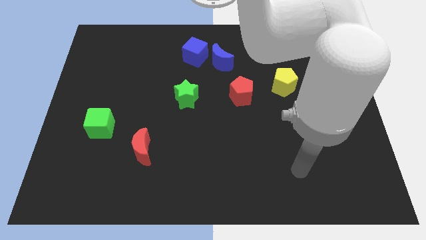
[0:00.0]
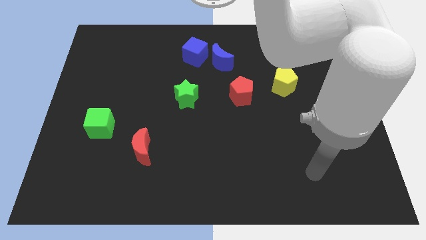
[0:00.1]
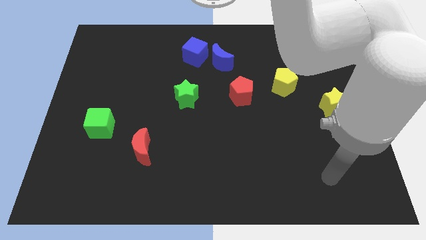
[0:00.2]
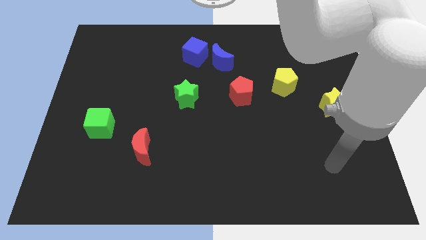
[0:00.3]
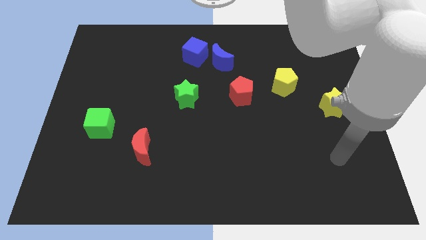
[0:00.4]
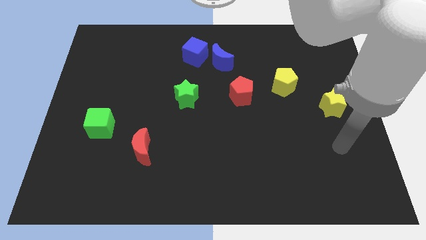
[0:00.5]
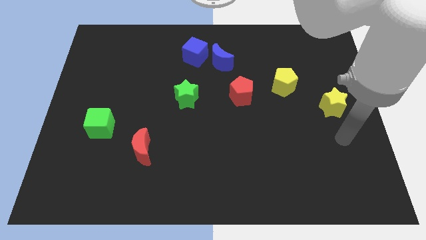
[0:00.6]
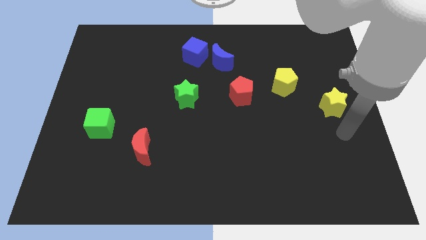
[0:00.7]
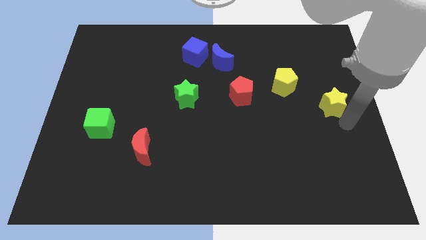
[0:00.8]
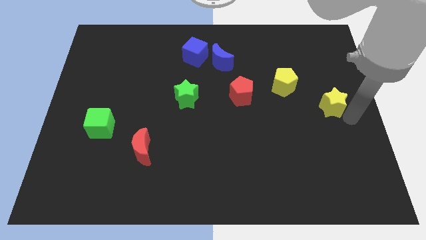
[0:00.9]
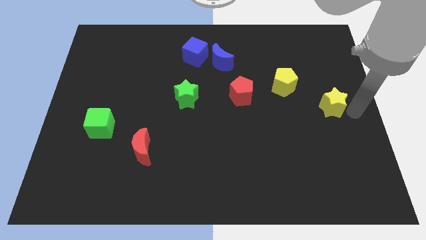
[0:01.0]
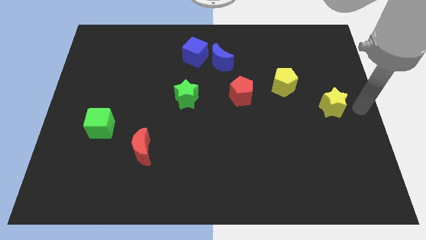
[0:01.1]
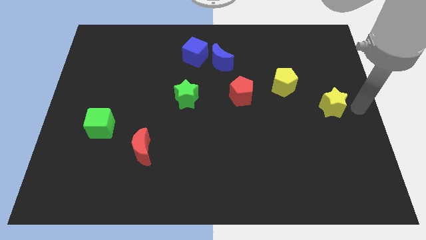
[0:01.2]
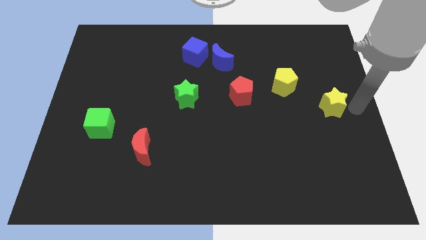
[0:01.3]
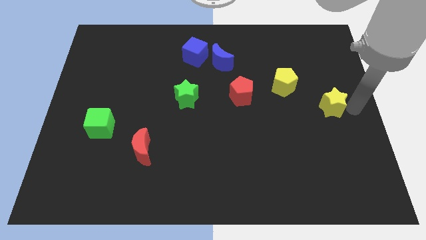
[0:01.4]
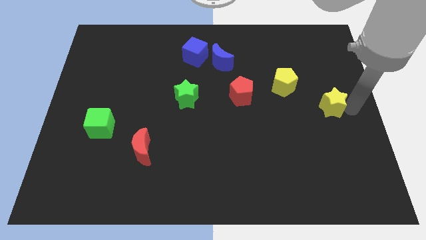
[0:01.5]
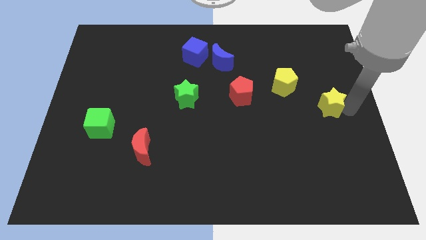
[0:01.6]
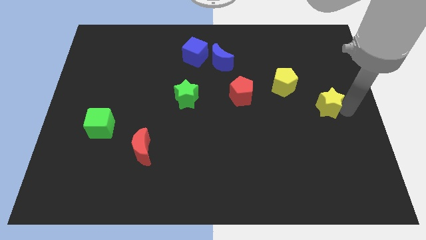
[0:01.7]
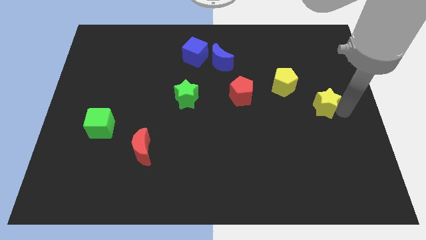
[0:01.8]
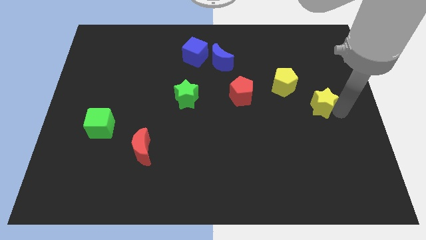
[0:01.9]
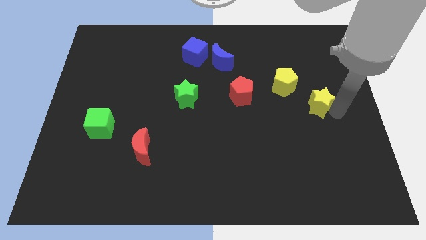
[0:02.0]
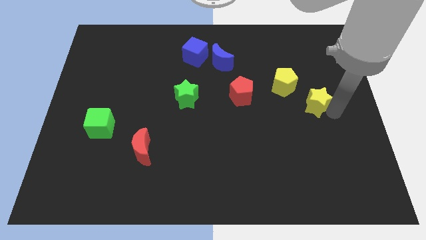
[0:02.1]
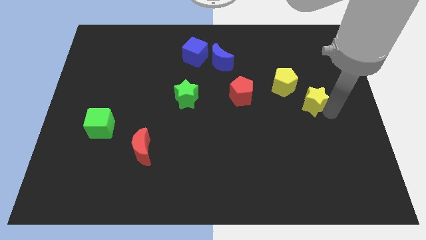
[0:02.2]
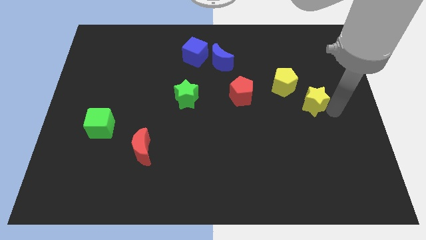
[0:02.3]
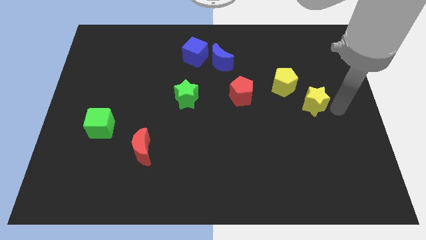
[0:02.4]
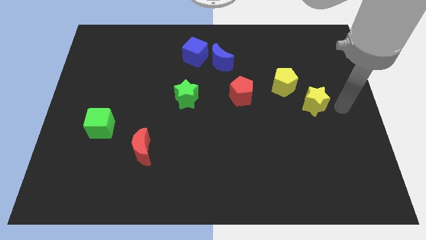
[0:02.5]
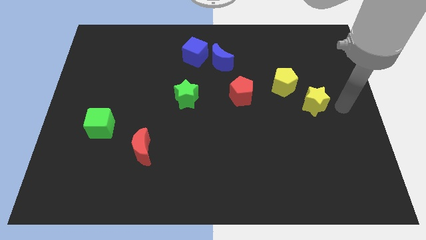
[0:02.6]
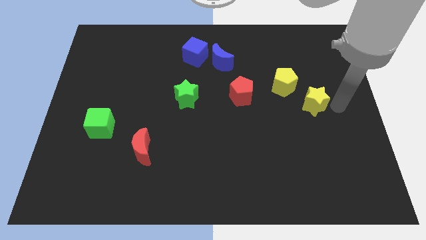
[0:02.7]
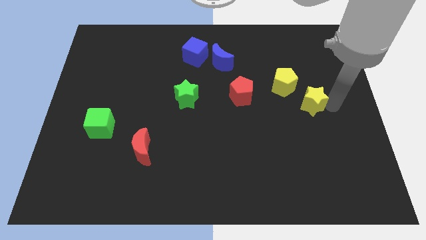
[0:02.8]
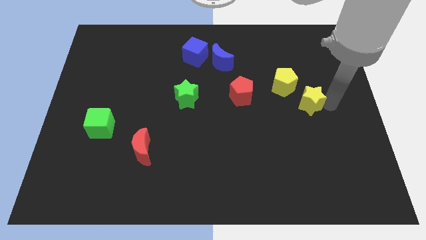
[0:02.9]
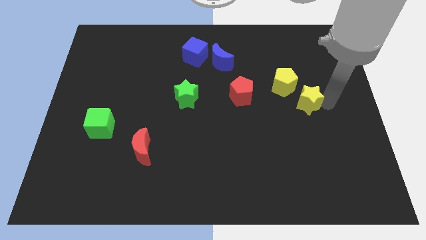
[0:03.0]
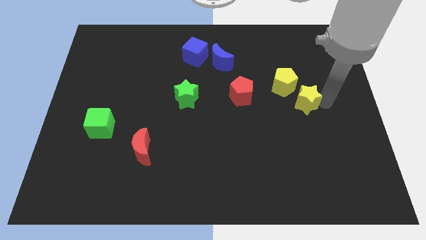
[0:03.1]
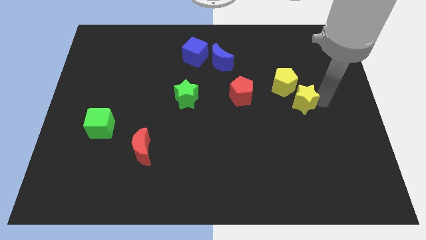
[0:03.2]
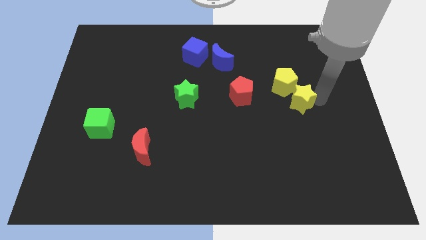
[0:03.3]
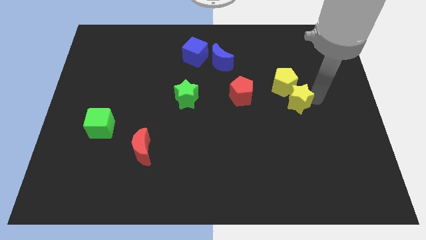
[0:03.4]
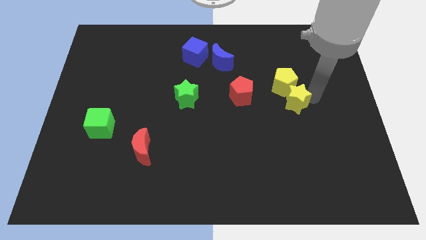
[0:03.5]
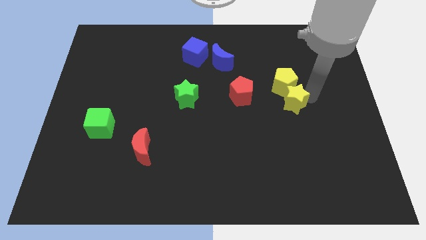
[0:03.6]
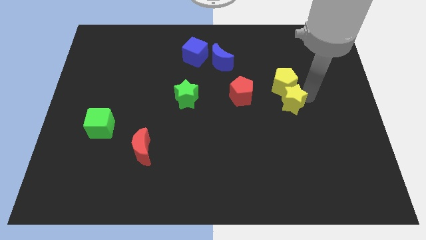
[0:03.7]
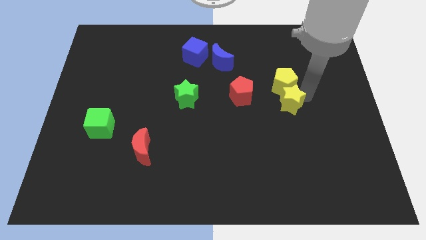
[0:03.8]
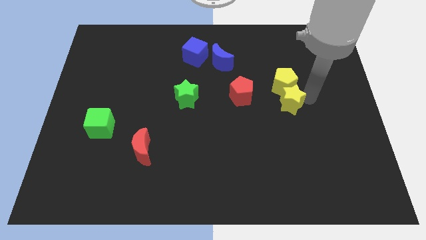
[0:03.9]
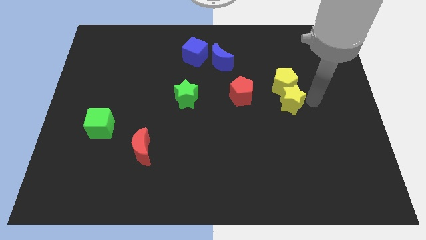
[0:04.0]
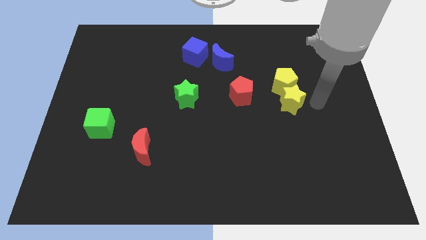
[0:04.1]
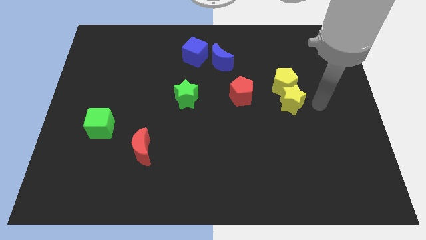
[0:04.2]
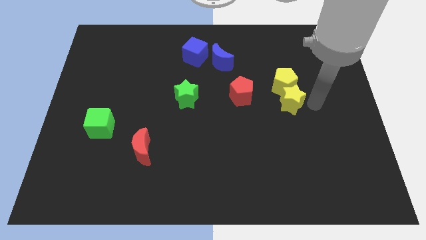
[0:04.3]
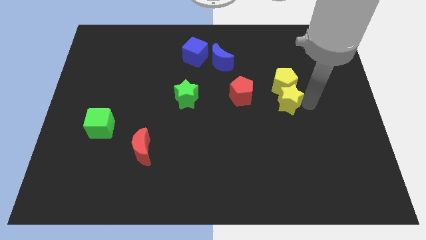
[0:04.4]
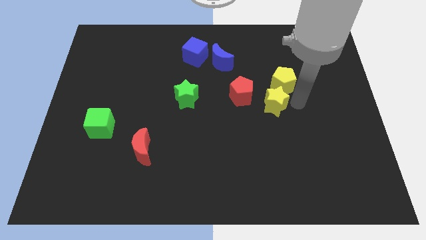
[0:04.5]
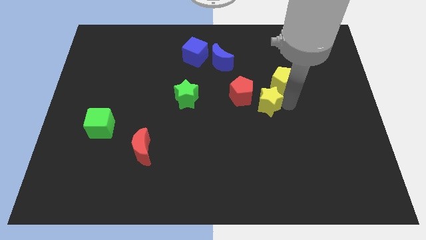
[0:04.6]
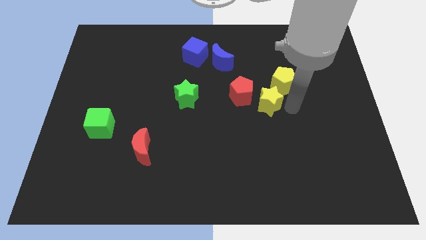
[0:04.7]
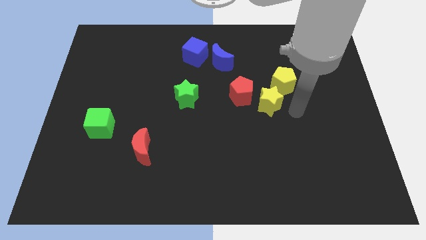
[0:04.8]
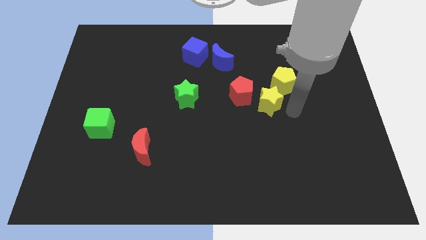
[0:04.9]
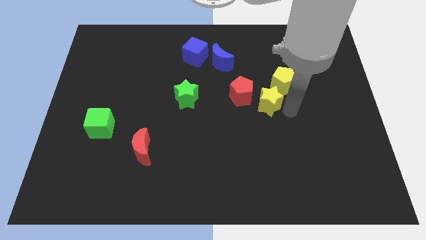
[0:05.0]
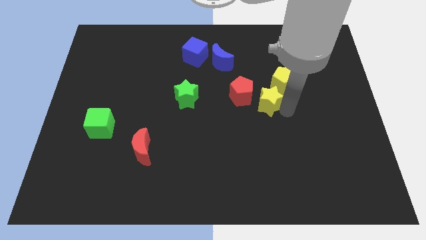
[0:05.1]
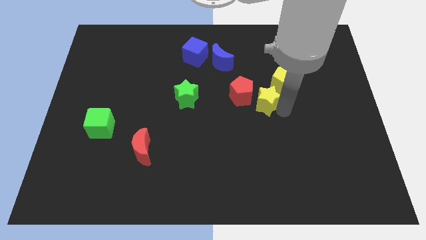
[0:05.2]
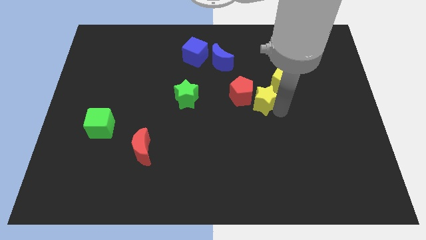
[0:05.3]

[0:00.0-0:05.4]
push the yellow star close to the red pentagon

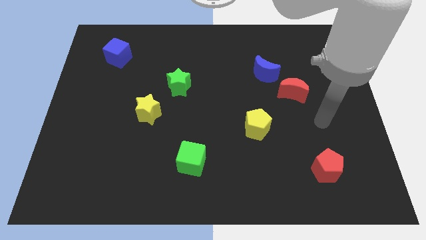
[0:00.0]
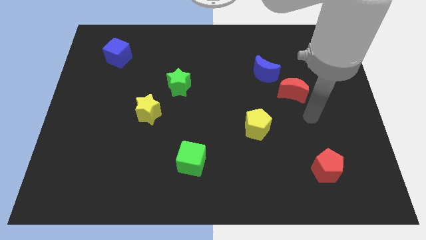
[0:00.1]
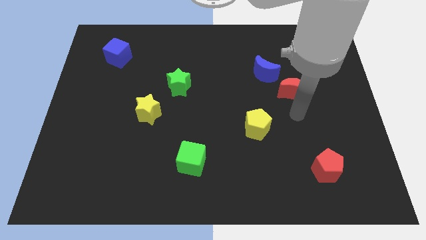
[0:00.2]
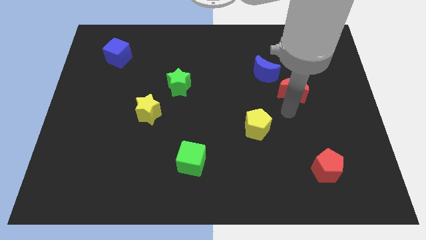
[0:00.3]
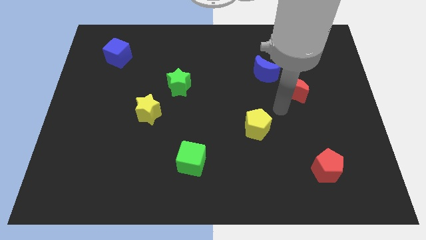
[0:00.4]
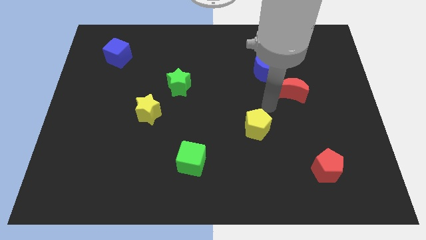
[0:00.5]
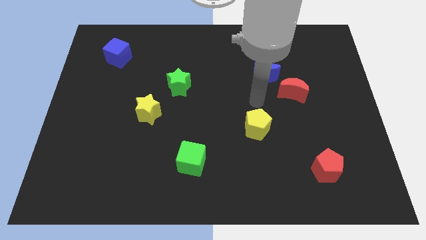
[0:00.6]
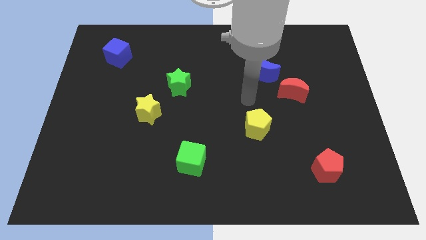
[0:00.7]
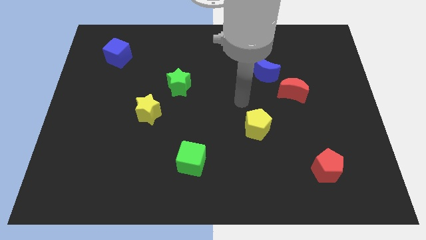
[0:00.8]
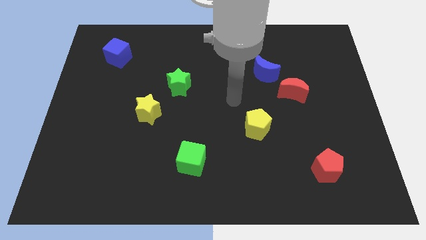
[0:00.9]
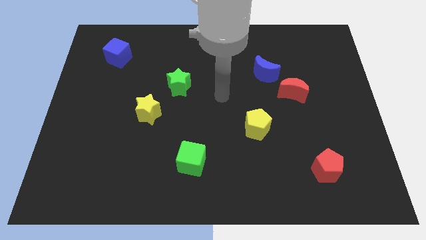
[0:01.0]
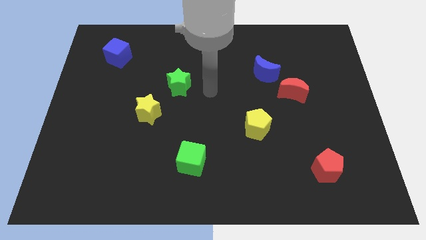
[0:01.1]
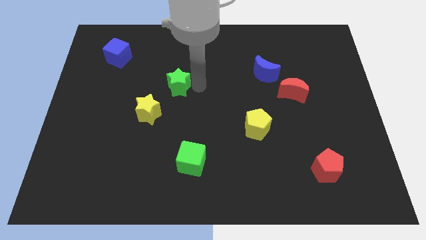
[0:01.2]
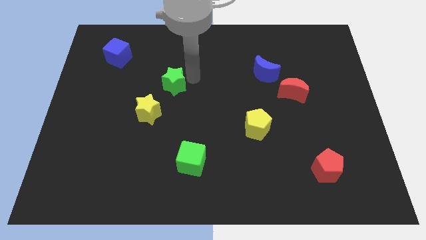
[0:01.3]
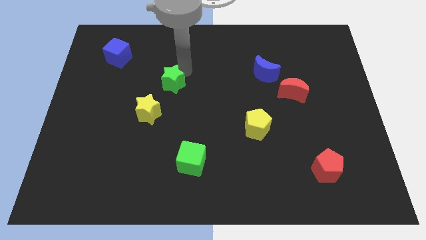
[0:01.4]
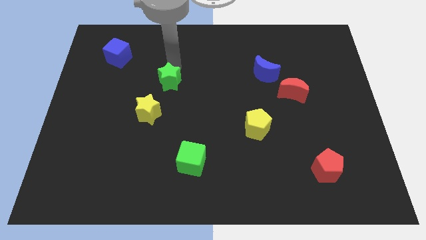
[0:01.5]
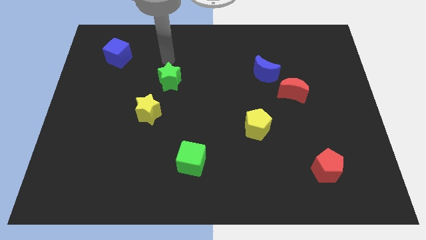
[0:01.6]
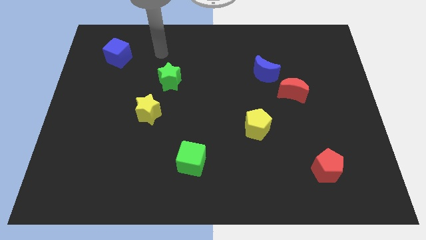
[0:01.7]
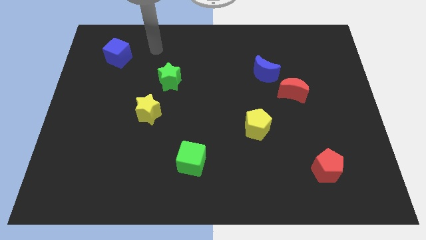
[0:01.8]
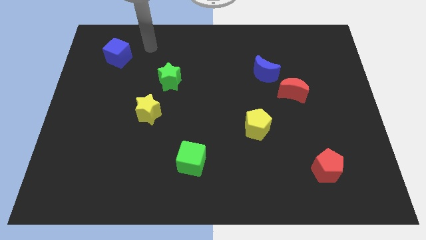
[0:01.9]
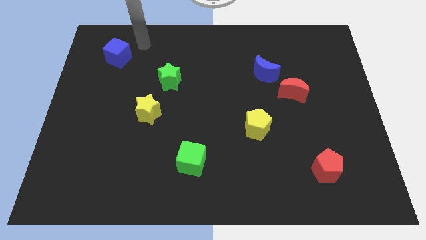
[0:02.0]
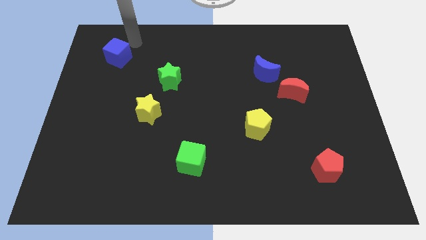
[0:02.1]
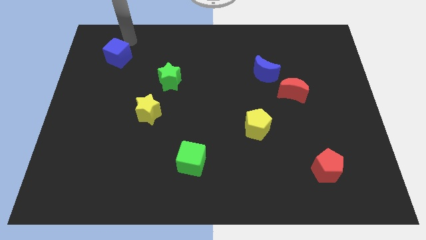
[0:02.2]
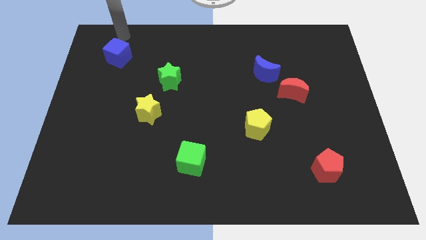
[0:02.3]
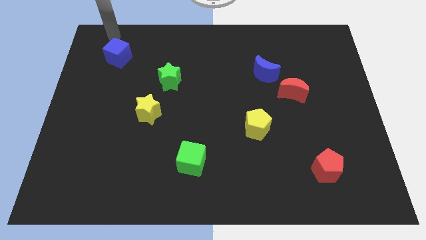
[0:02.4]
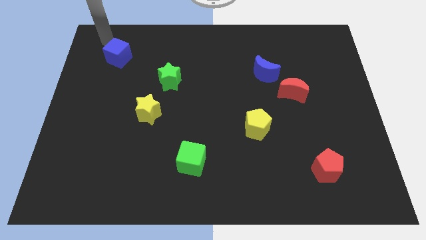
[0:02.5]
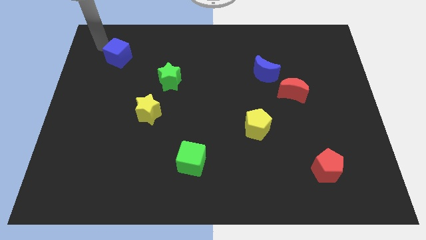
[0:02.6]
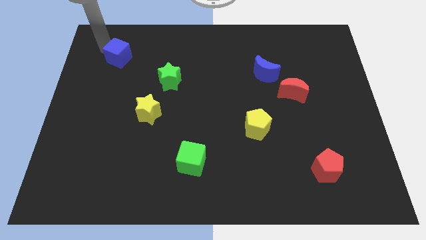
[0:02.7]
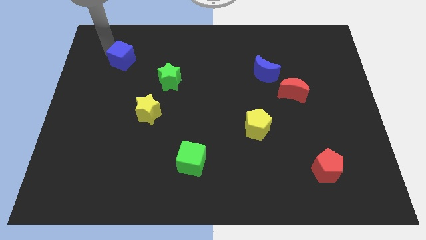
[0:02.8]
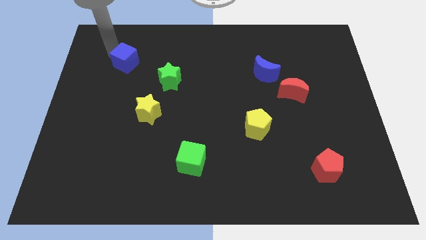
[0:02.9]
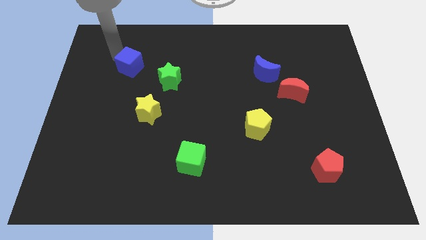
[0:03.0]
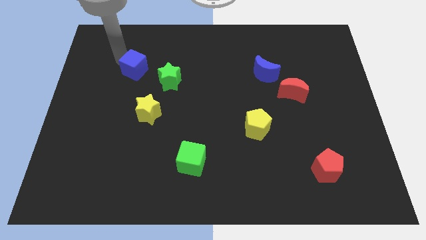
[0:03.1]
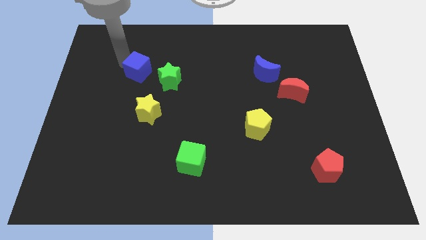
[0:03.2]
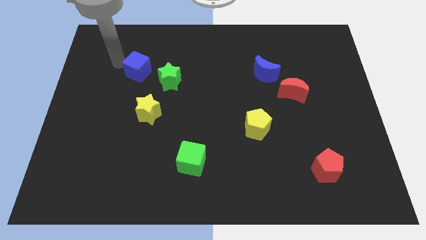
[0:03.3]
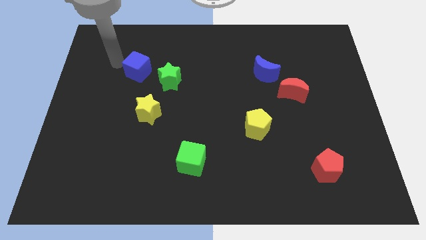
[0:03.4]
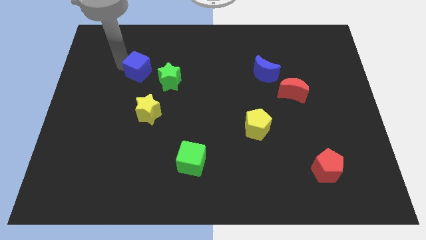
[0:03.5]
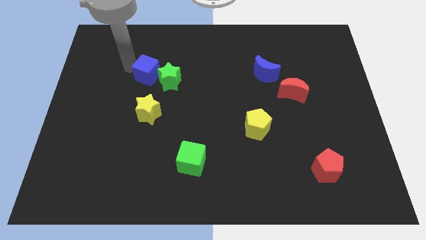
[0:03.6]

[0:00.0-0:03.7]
slide the blue cube to the green star
